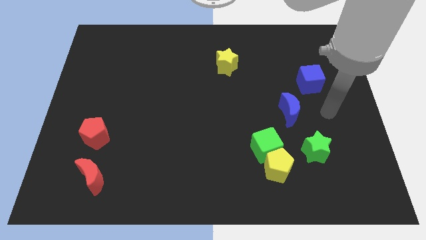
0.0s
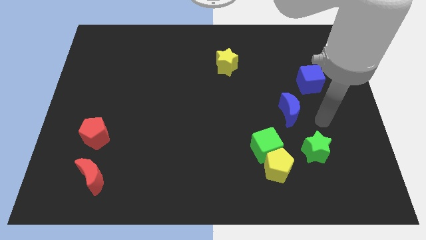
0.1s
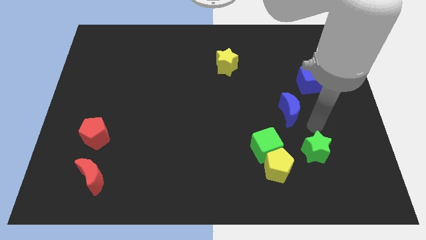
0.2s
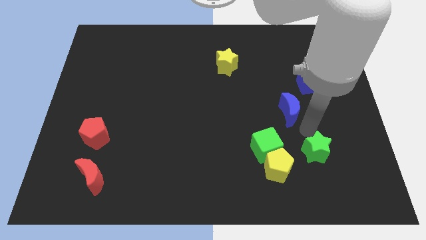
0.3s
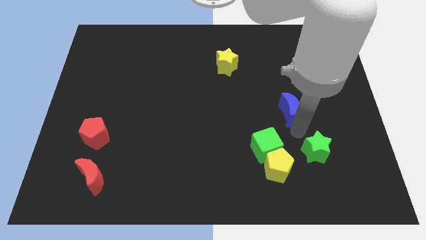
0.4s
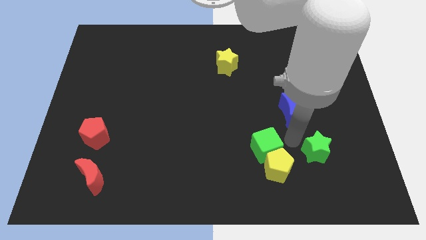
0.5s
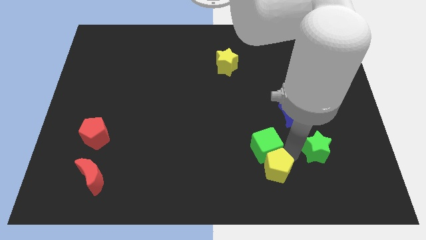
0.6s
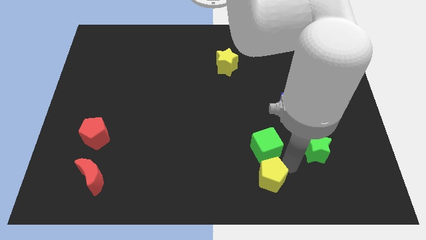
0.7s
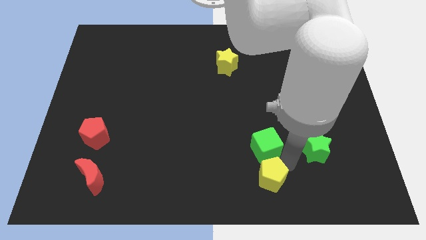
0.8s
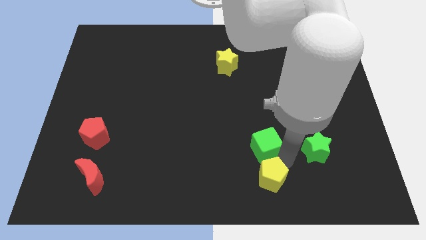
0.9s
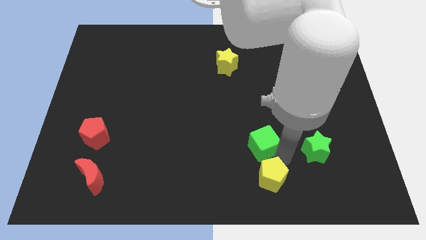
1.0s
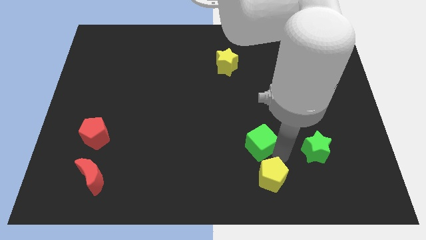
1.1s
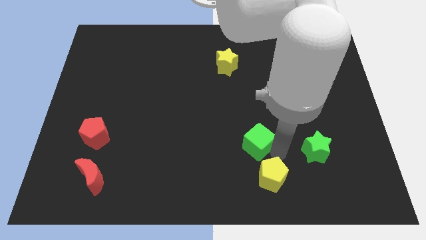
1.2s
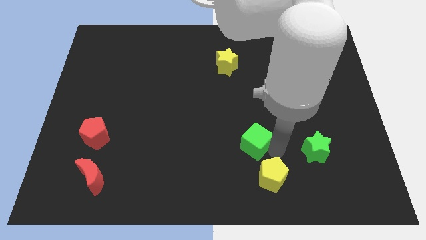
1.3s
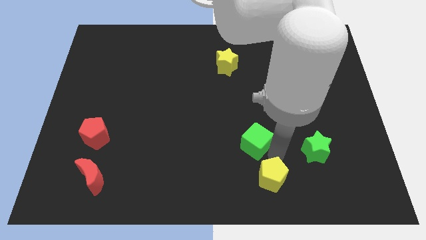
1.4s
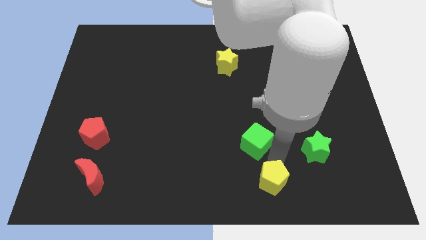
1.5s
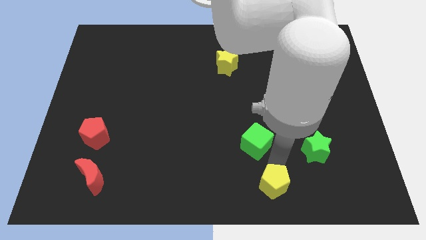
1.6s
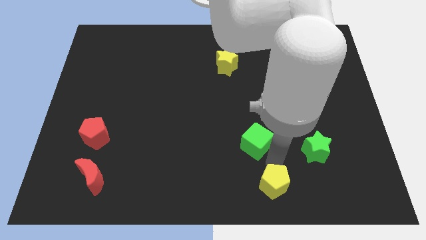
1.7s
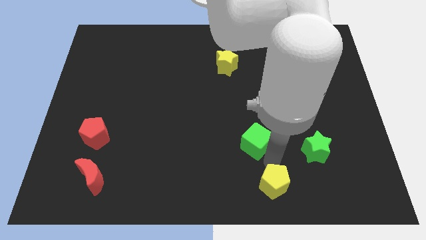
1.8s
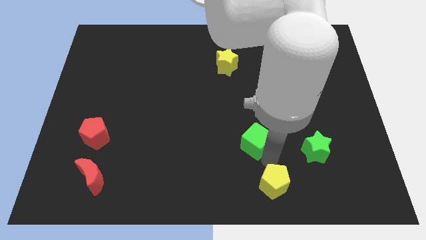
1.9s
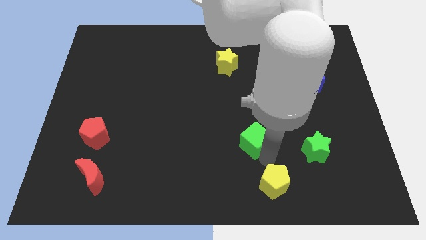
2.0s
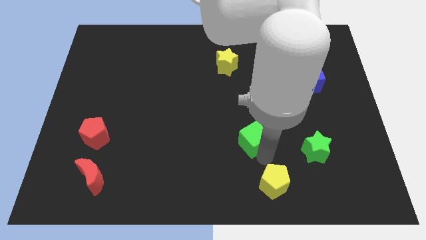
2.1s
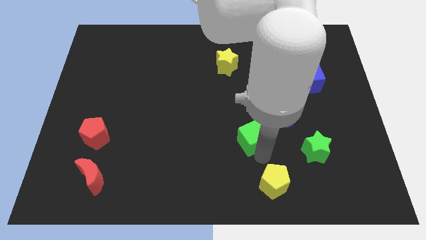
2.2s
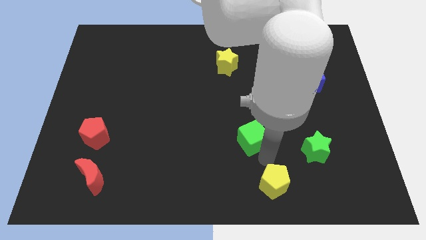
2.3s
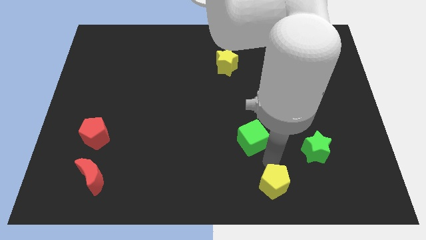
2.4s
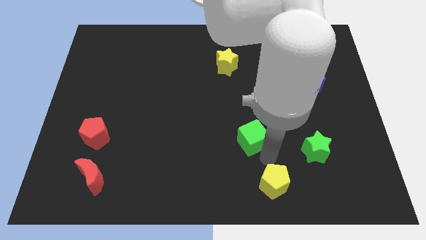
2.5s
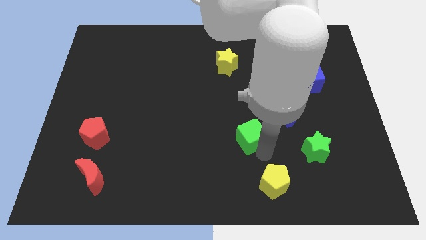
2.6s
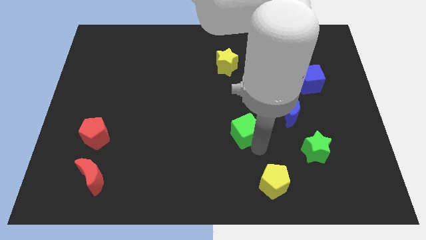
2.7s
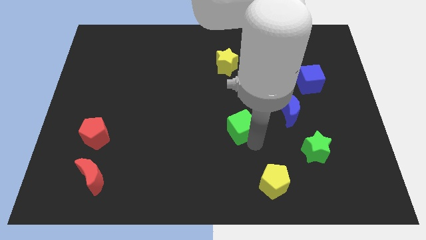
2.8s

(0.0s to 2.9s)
slightly slide the green cube up and left diagonally

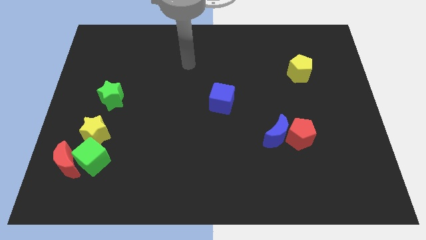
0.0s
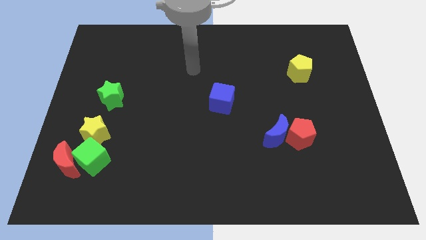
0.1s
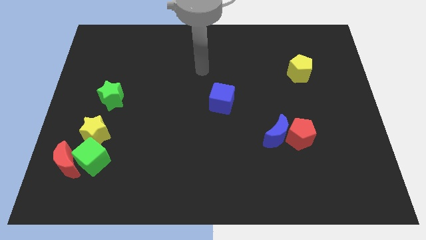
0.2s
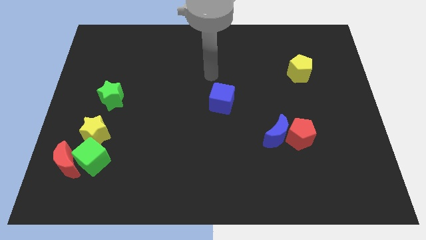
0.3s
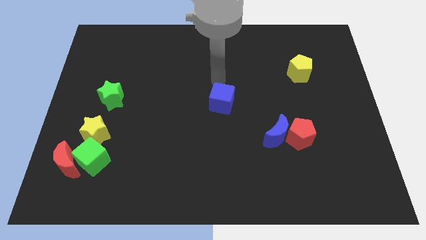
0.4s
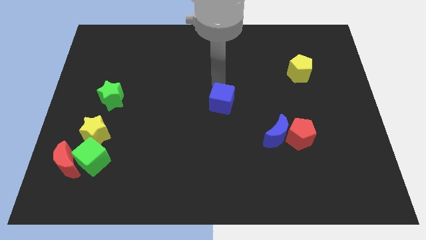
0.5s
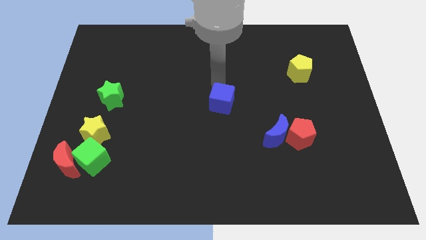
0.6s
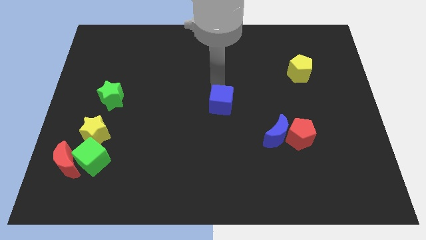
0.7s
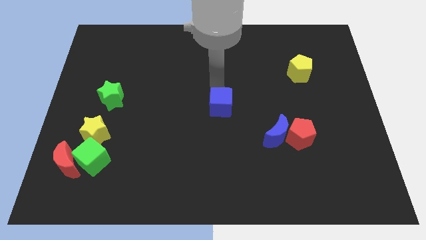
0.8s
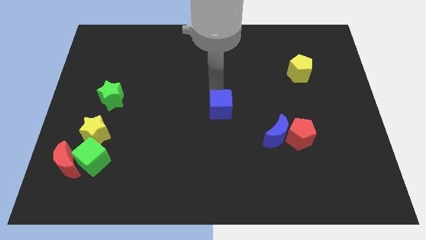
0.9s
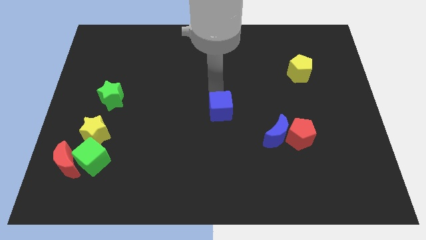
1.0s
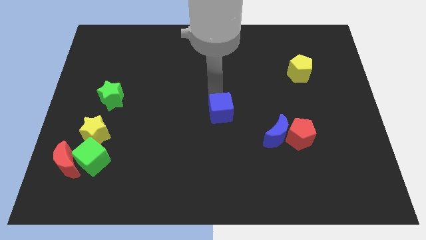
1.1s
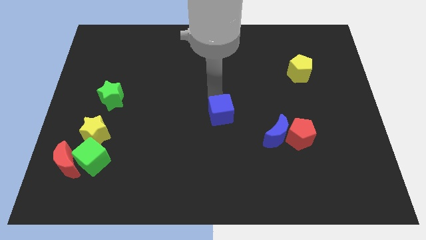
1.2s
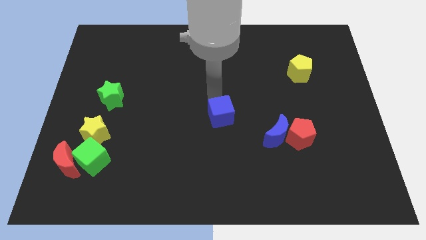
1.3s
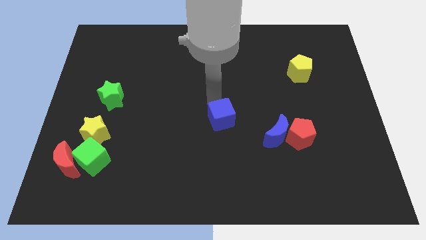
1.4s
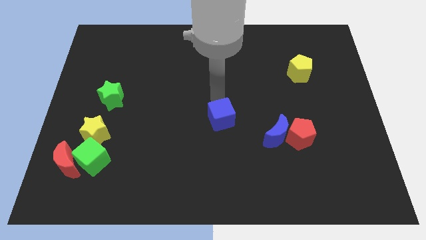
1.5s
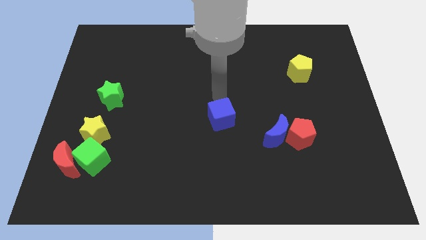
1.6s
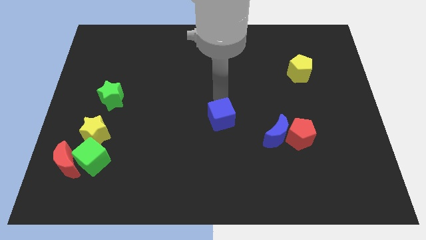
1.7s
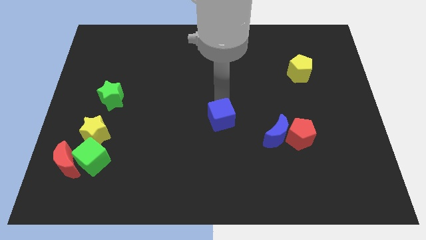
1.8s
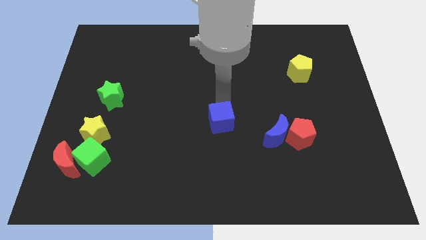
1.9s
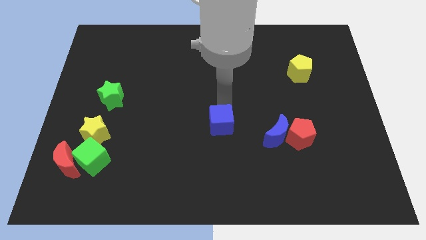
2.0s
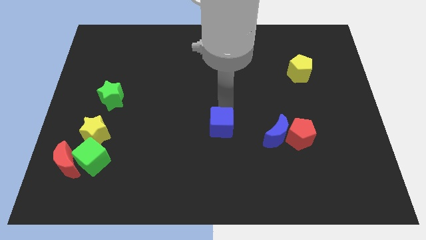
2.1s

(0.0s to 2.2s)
slightly slide the blue cube downwards

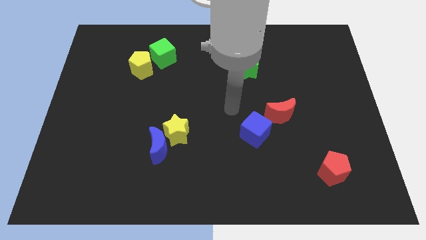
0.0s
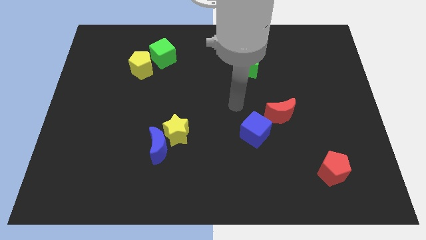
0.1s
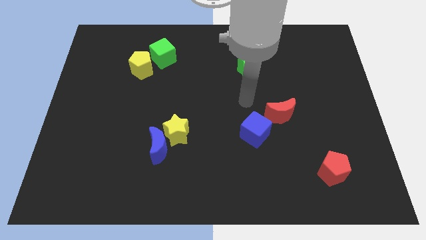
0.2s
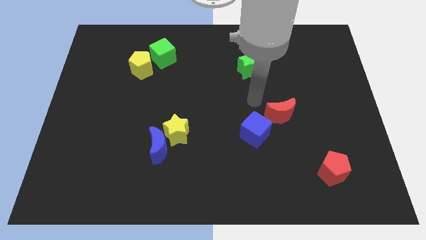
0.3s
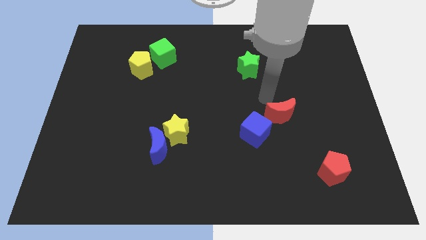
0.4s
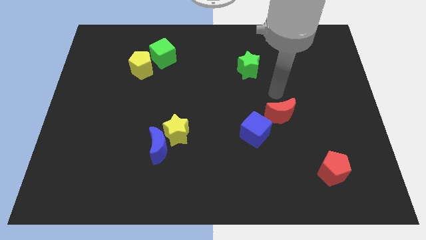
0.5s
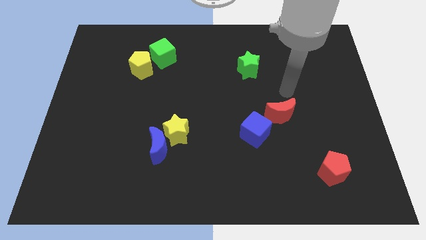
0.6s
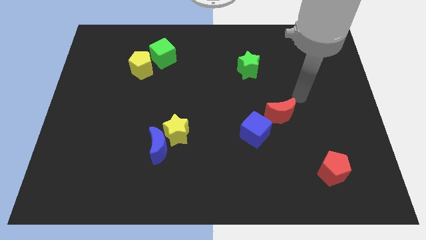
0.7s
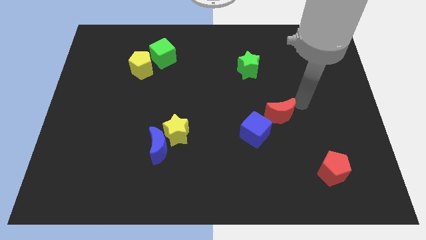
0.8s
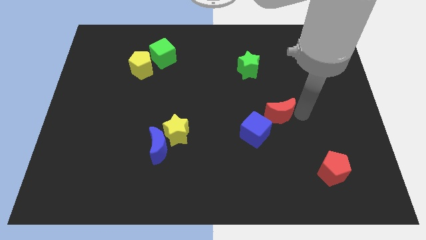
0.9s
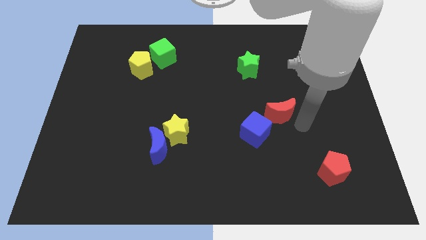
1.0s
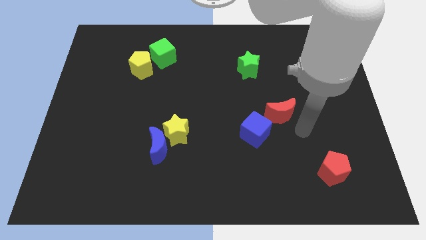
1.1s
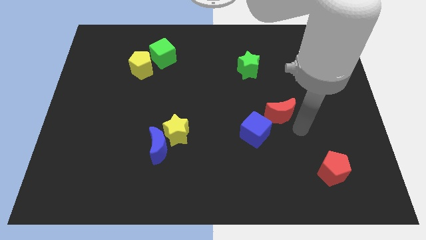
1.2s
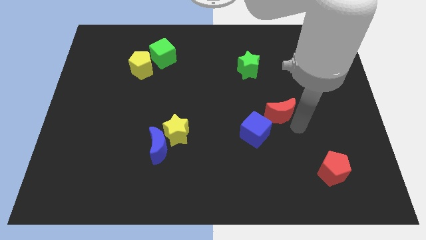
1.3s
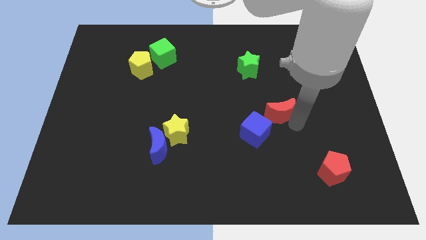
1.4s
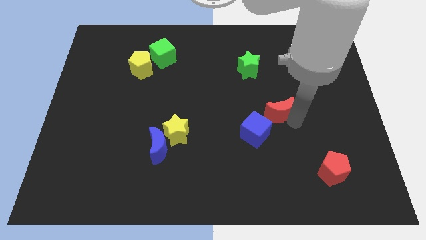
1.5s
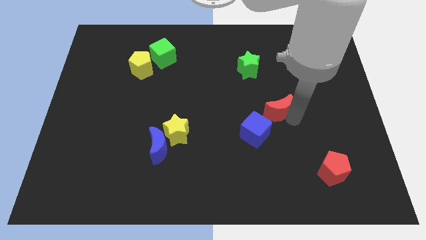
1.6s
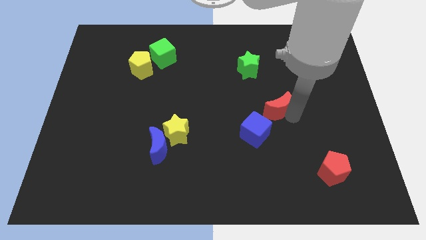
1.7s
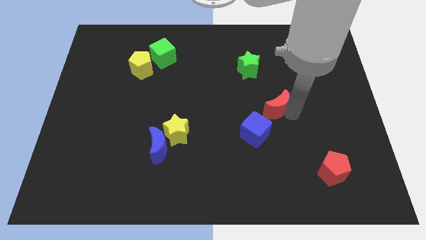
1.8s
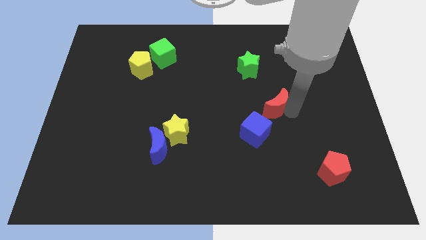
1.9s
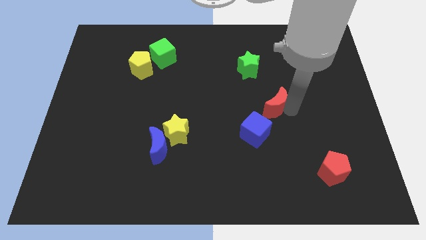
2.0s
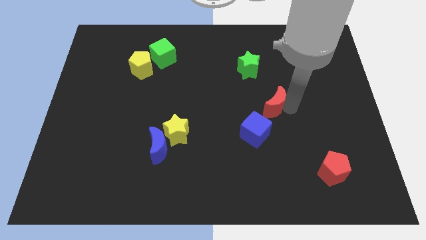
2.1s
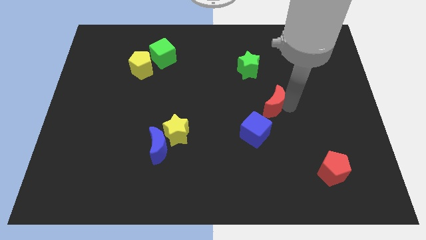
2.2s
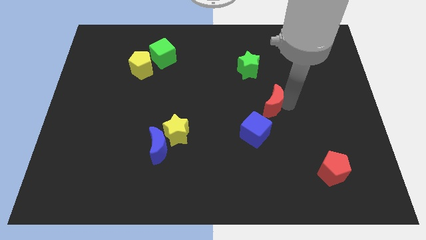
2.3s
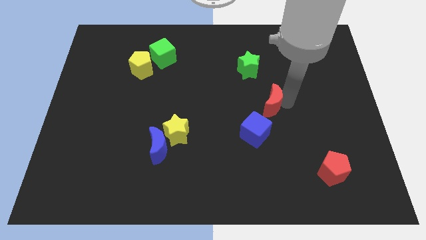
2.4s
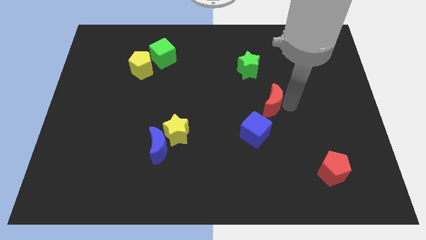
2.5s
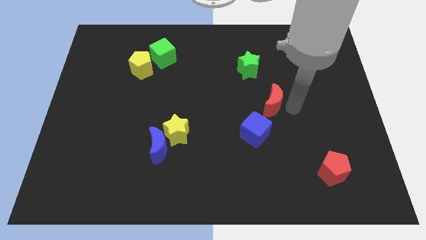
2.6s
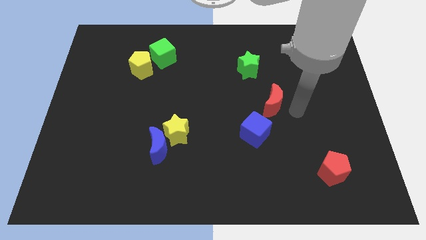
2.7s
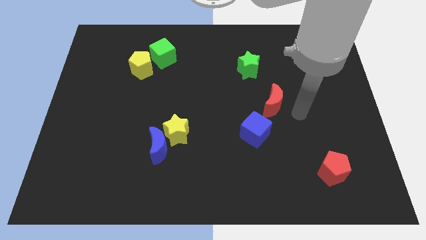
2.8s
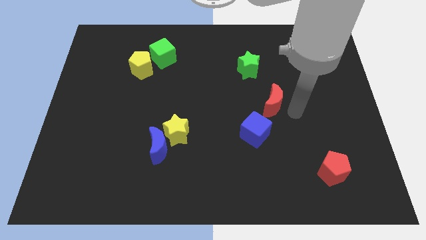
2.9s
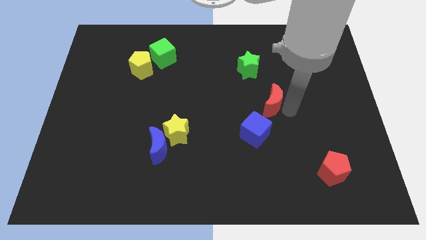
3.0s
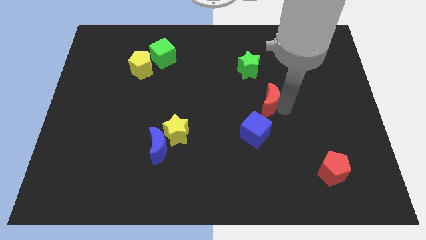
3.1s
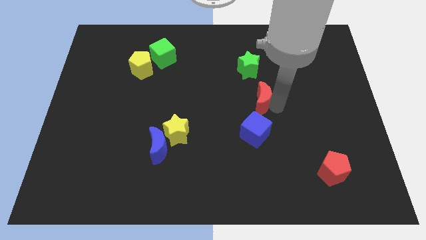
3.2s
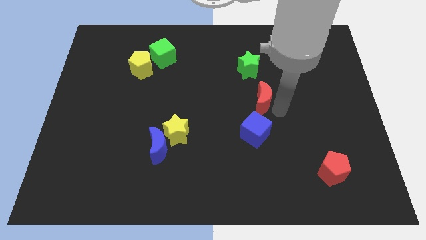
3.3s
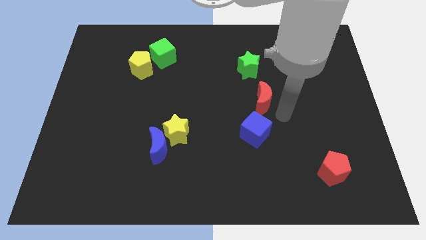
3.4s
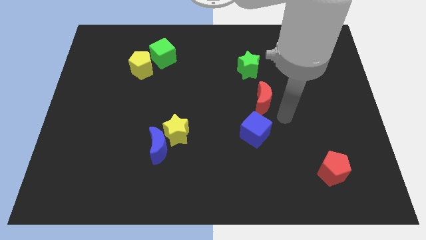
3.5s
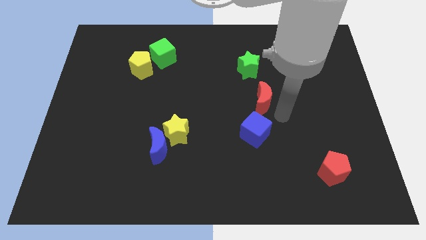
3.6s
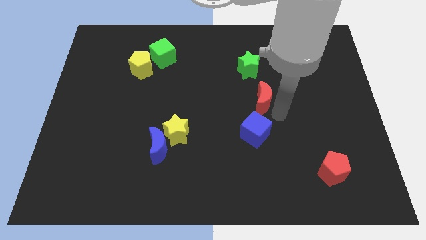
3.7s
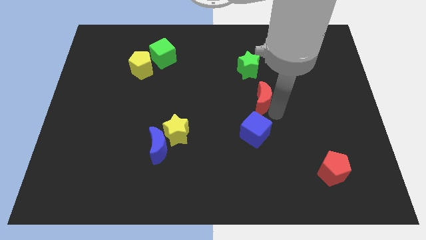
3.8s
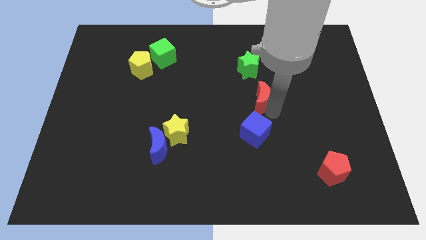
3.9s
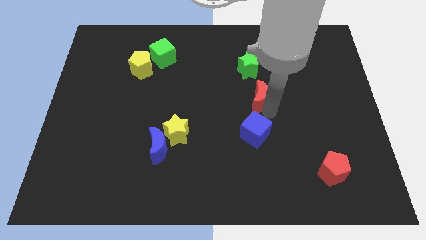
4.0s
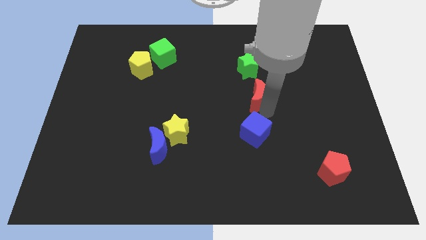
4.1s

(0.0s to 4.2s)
slightly move the red moon diagonally upwards and to the left
